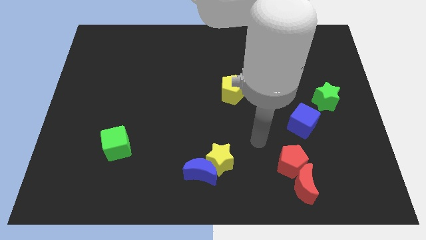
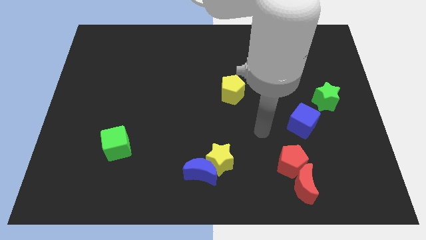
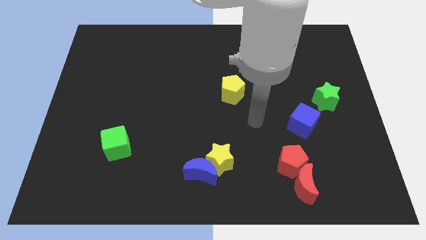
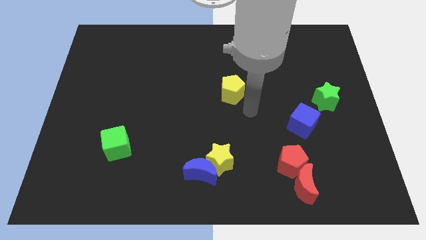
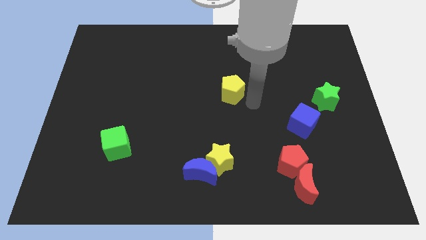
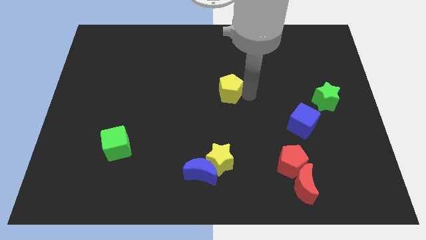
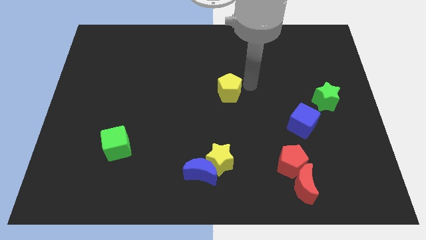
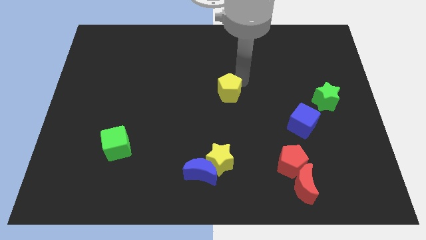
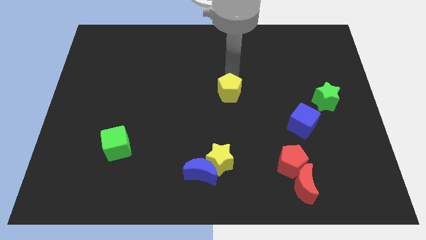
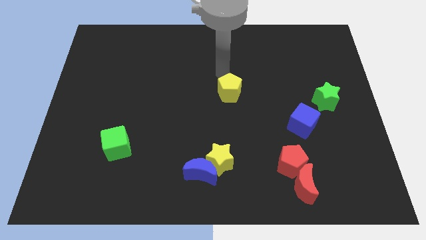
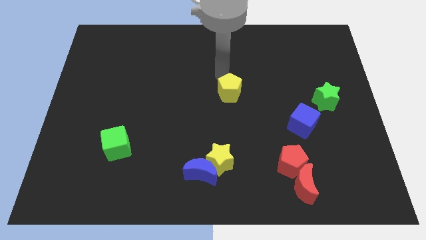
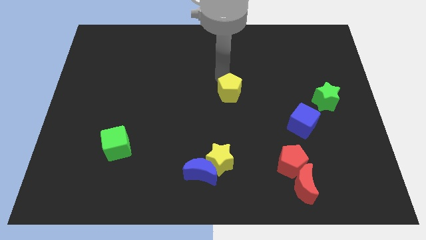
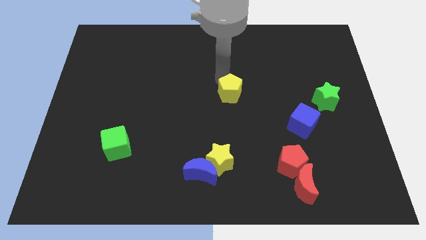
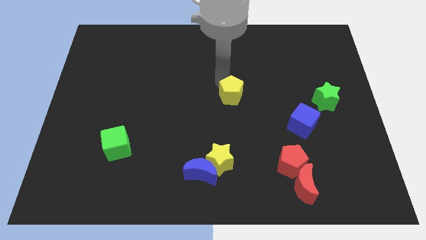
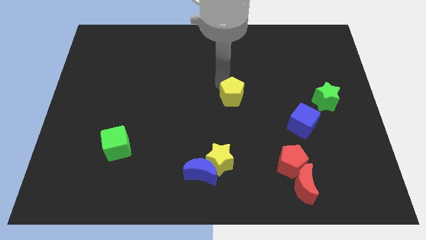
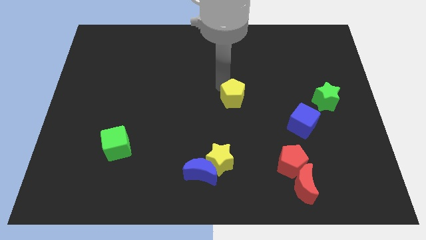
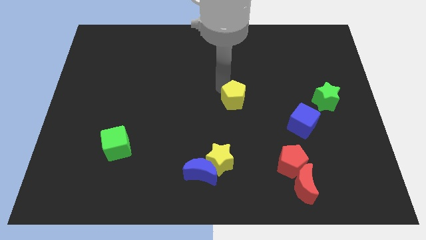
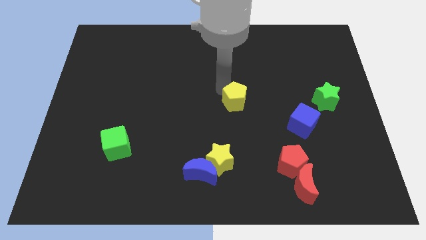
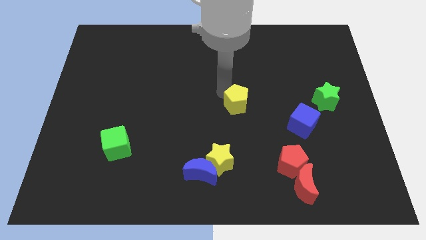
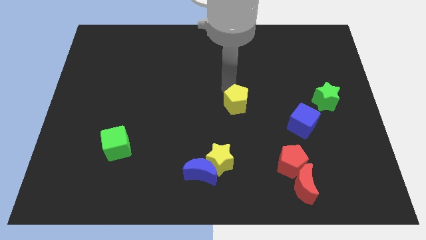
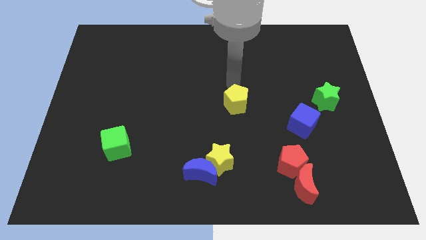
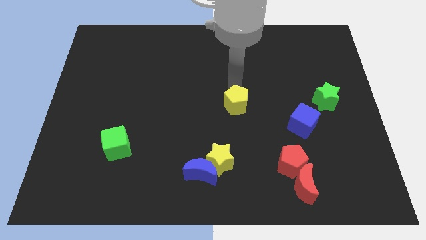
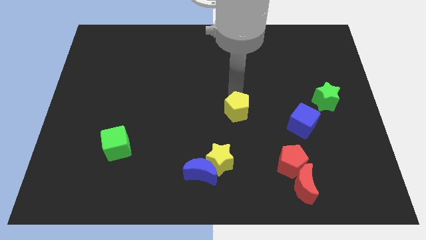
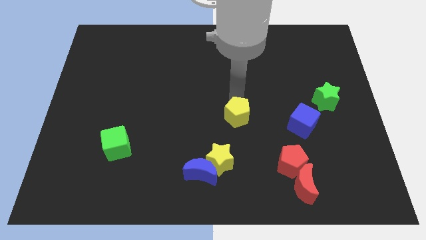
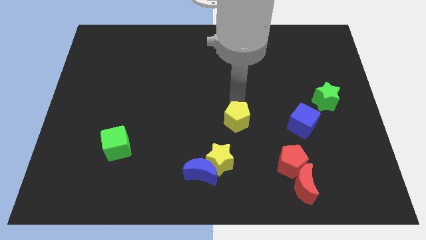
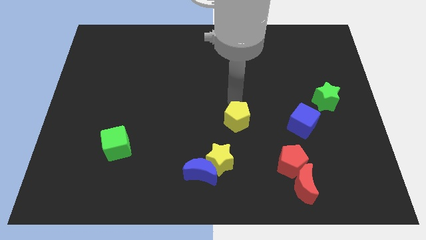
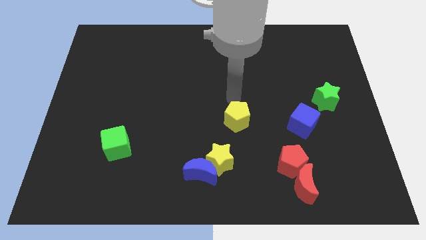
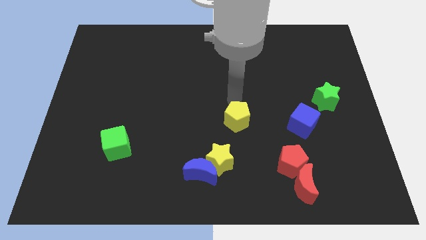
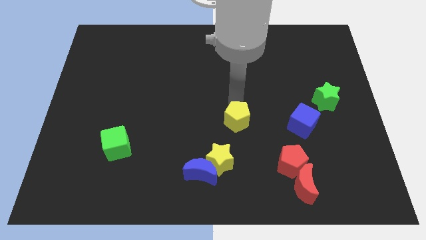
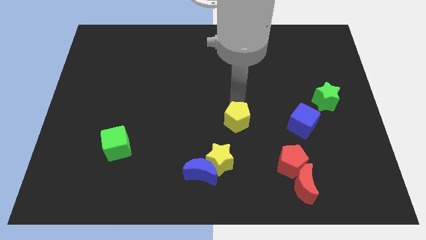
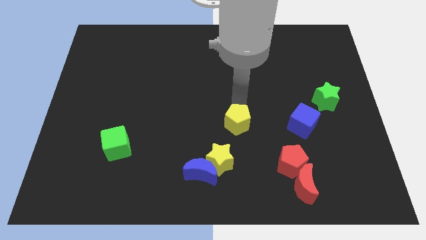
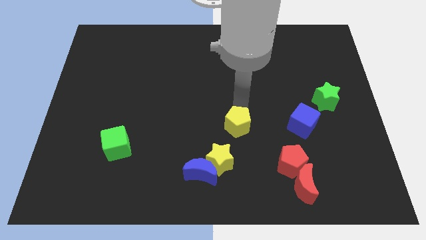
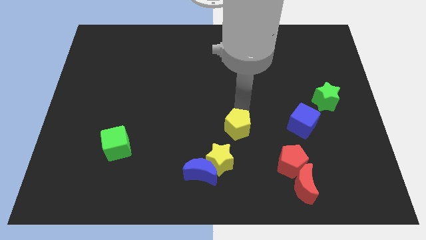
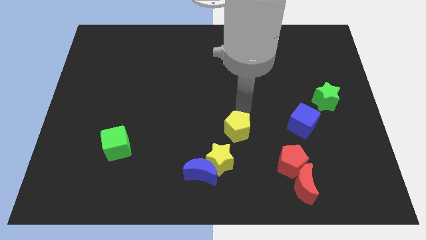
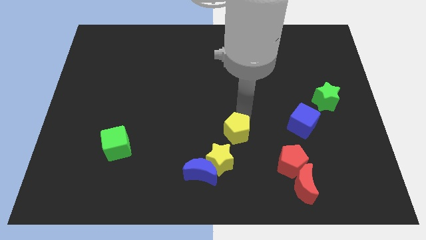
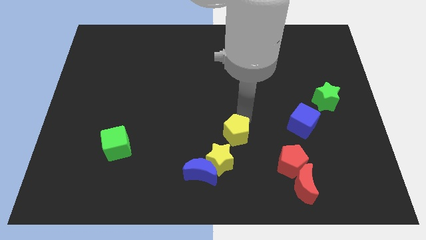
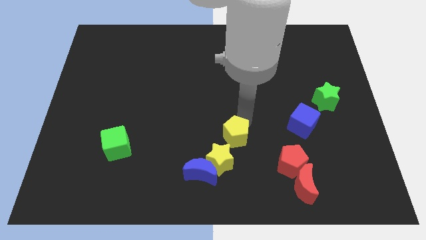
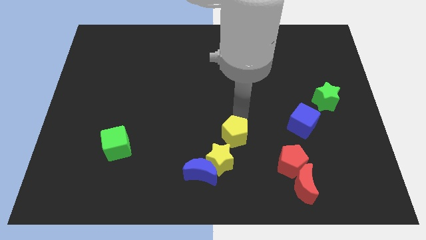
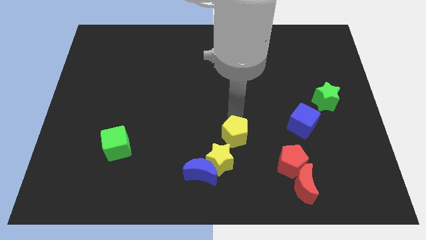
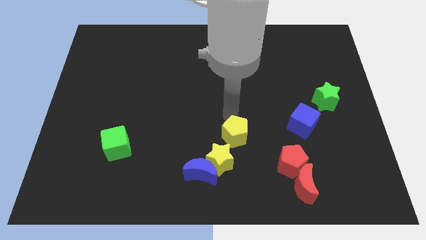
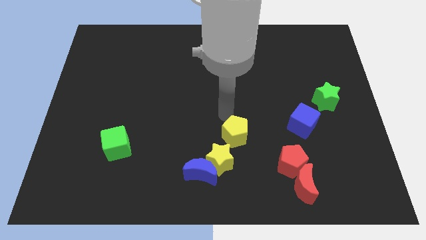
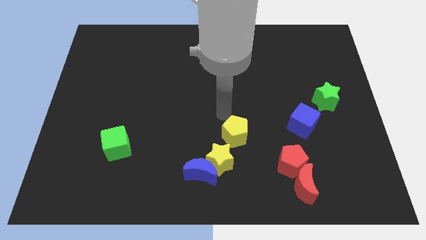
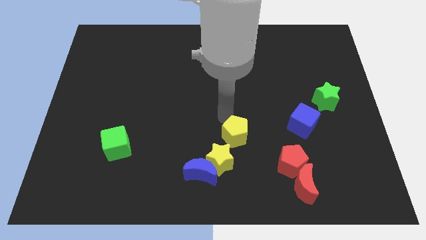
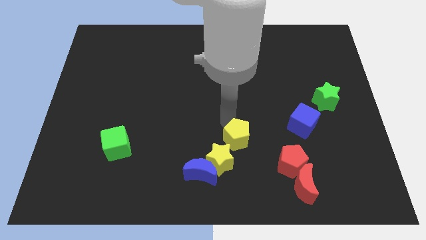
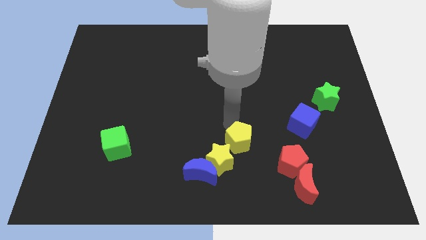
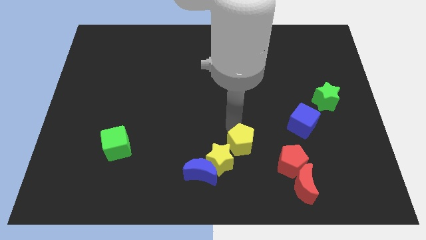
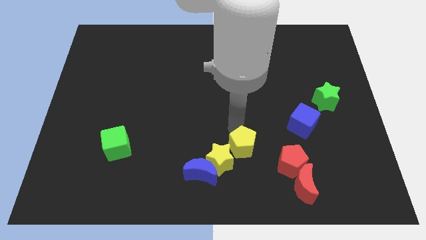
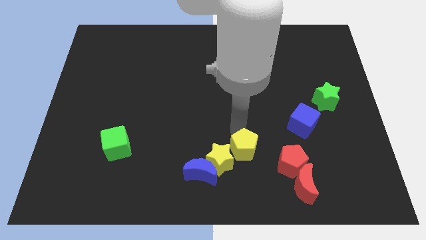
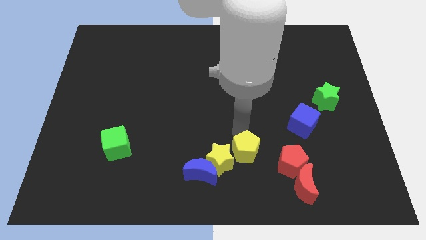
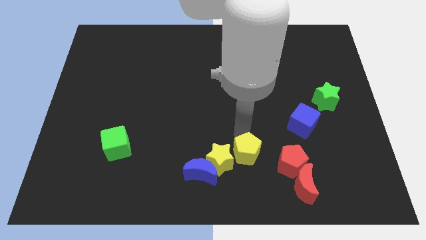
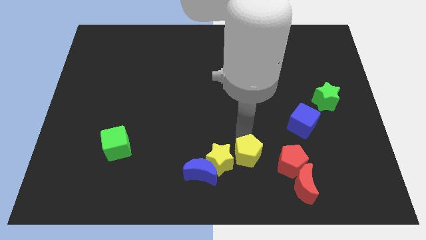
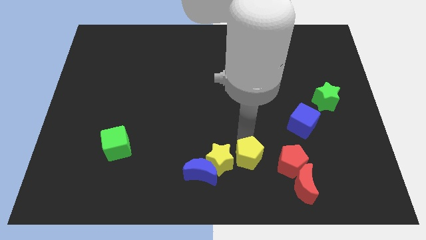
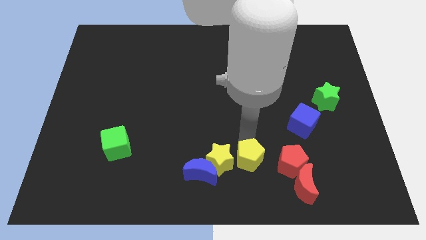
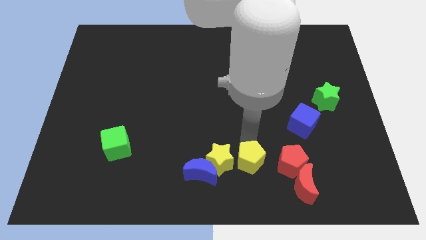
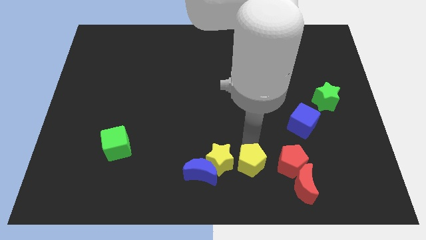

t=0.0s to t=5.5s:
put the yellow pentagon to the bottom side

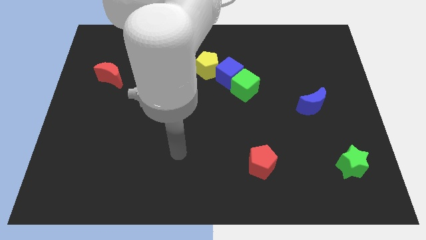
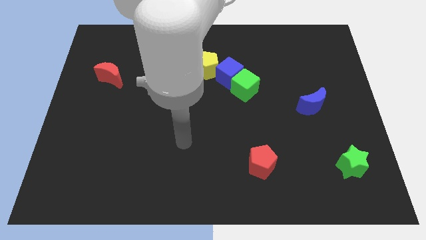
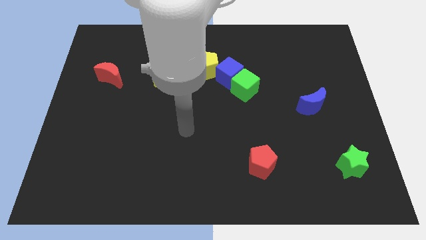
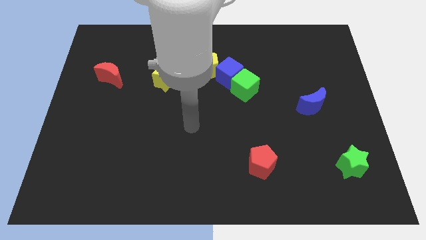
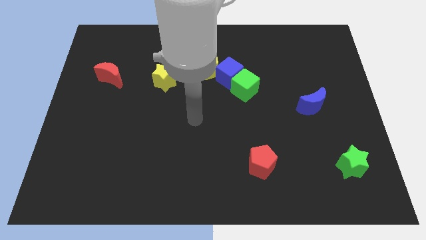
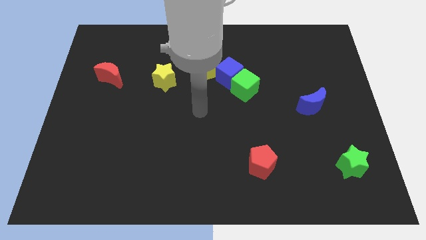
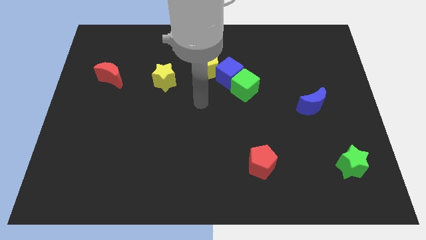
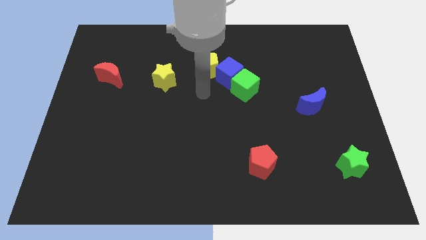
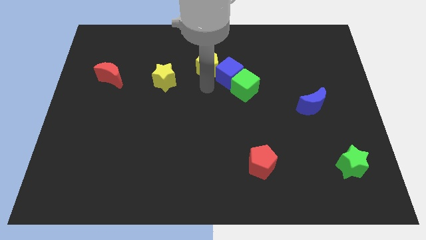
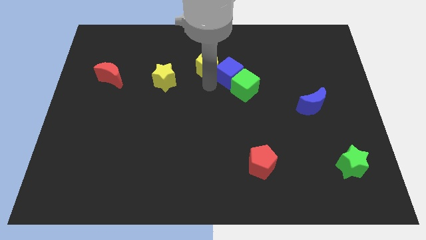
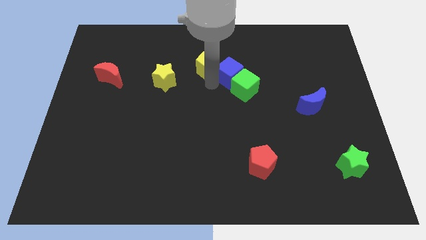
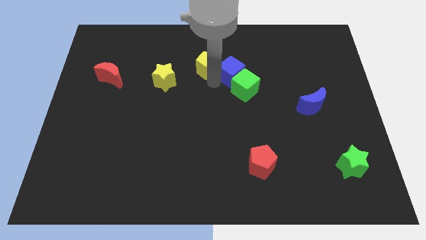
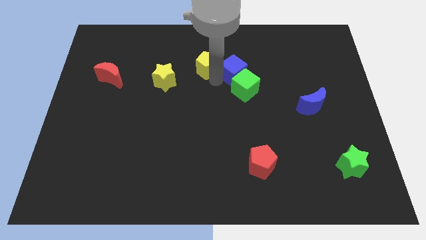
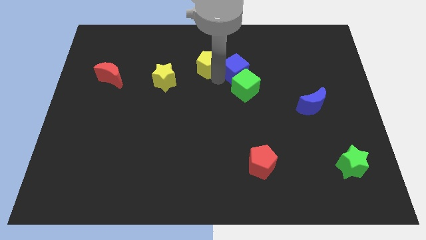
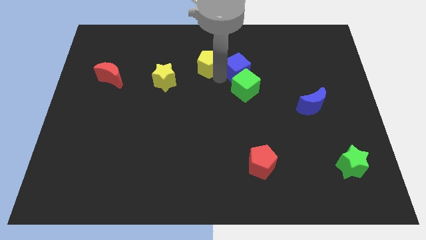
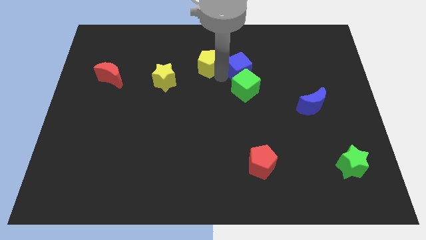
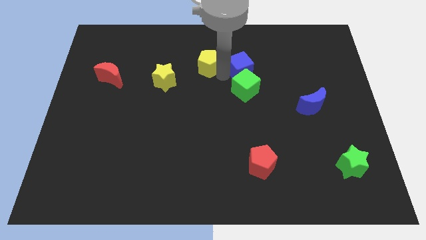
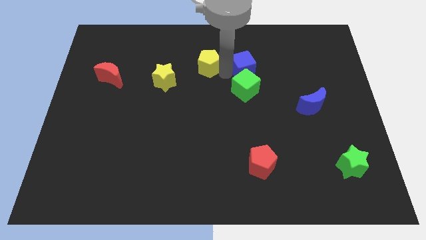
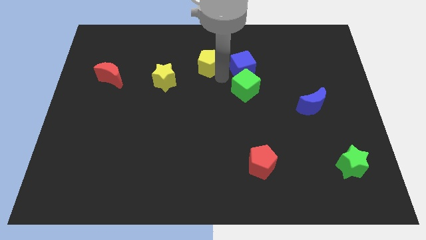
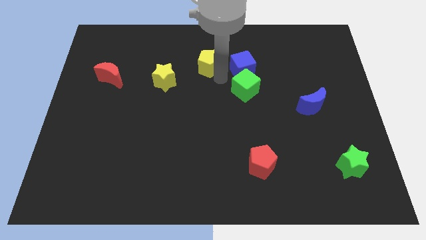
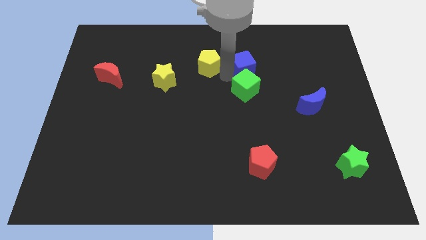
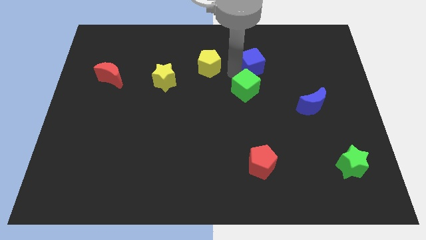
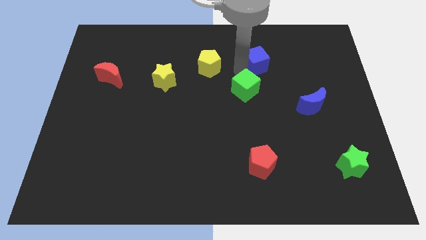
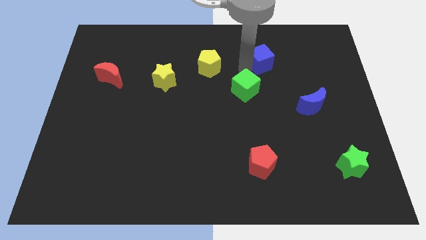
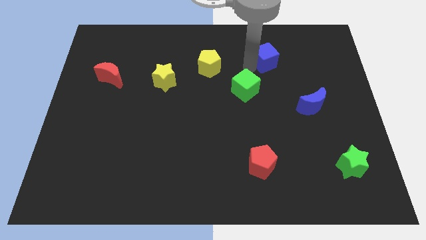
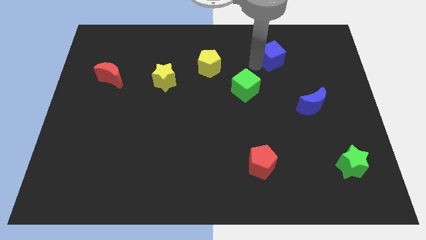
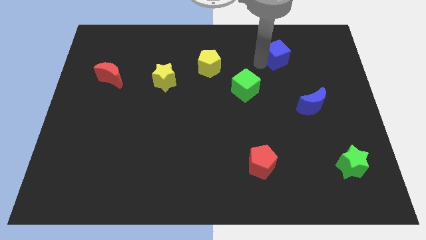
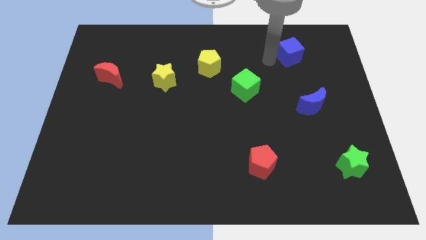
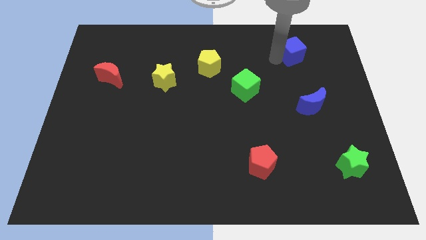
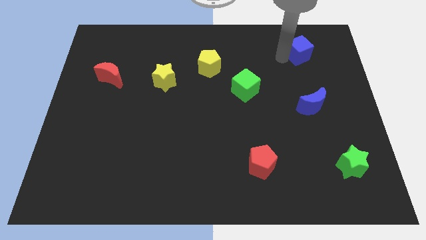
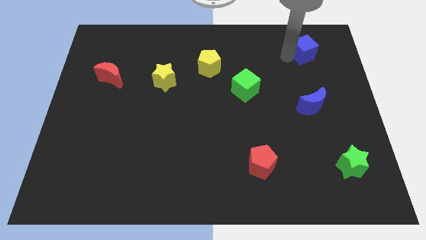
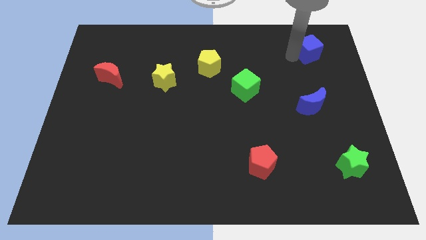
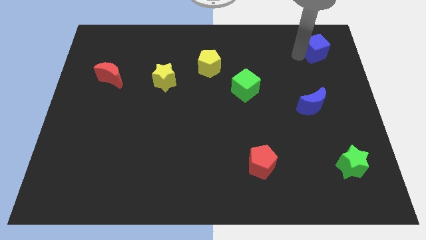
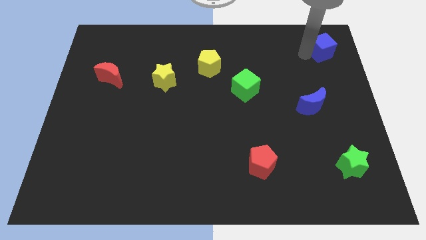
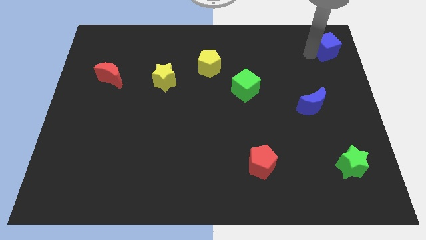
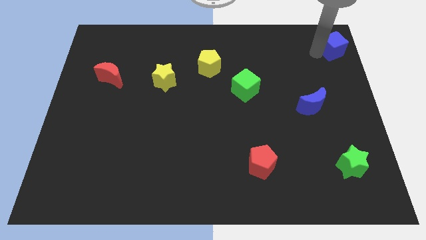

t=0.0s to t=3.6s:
slide the blue cube to the top right of the board
